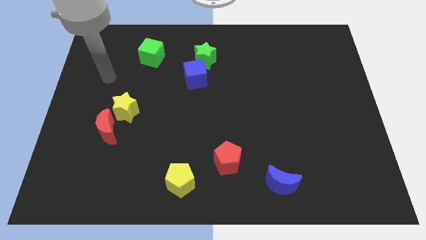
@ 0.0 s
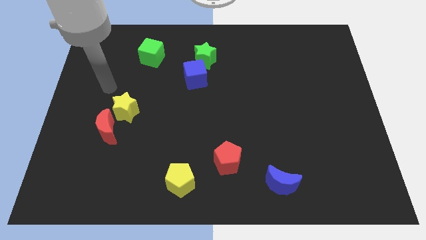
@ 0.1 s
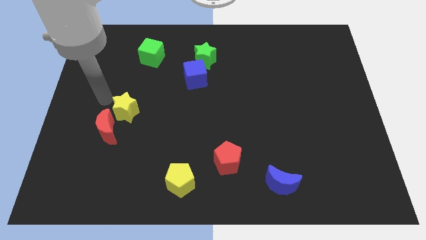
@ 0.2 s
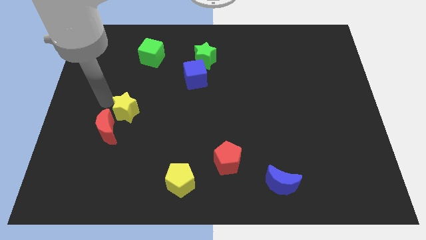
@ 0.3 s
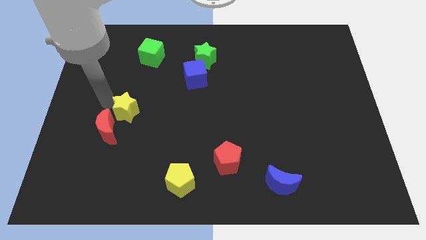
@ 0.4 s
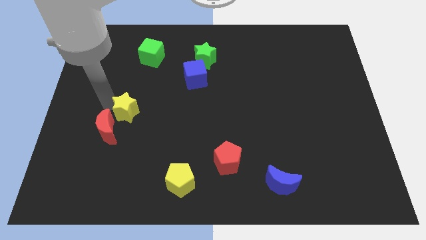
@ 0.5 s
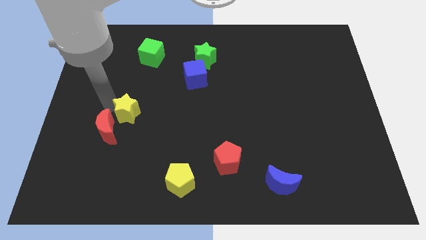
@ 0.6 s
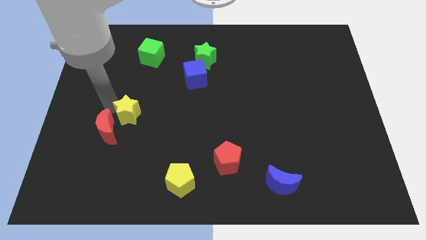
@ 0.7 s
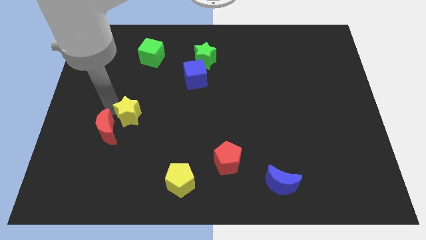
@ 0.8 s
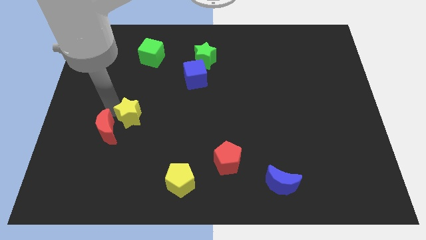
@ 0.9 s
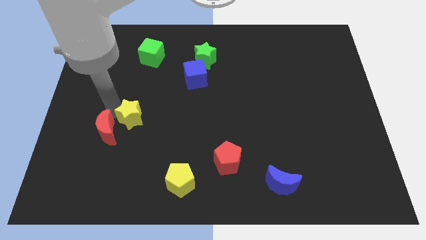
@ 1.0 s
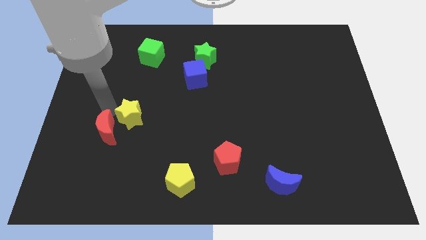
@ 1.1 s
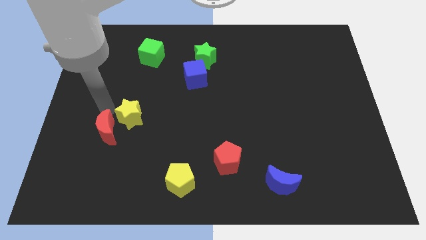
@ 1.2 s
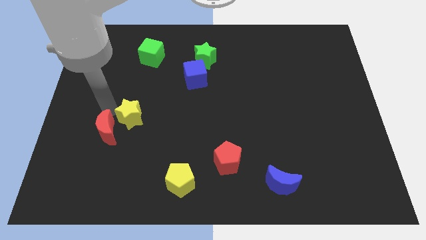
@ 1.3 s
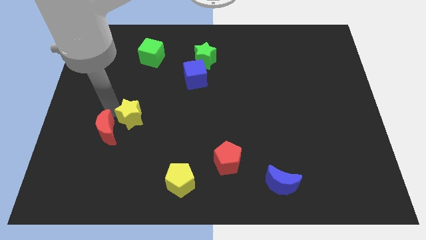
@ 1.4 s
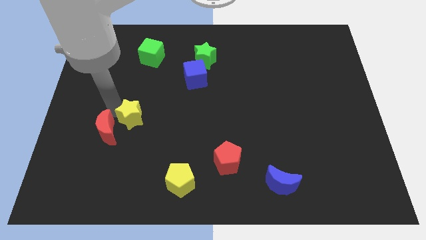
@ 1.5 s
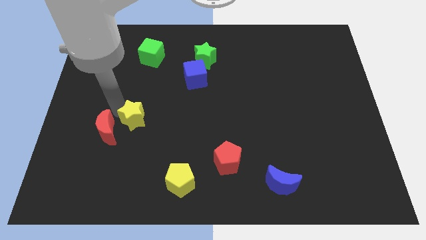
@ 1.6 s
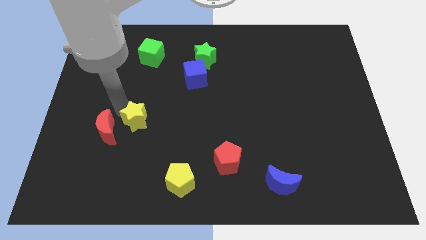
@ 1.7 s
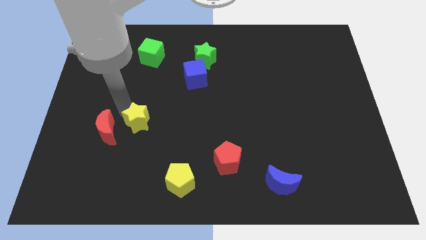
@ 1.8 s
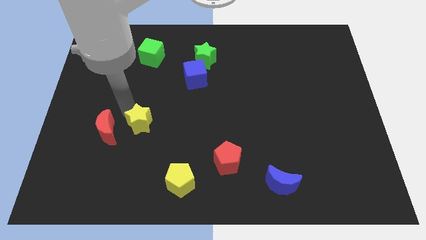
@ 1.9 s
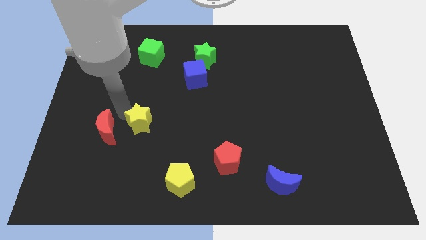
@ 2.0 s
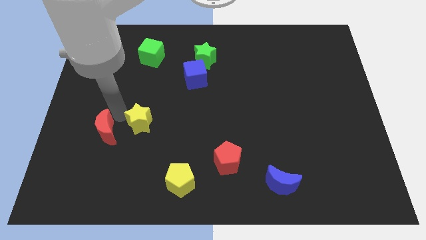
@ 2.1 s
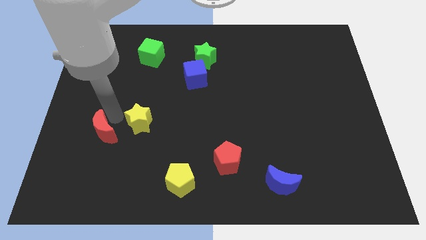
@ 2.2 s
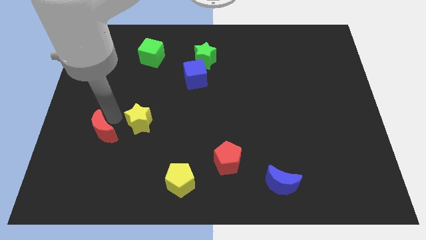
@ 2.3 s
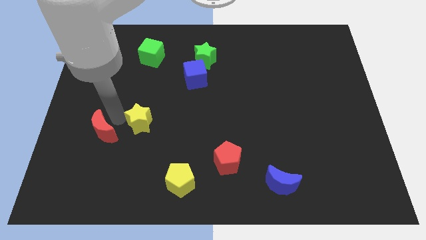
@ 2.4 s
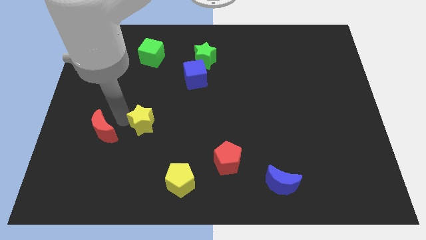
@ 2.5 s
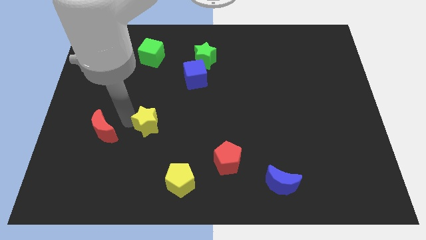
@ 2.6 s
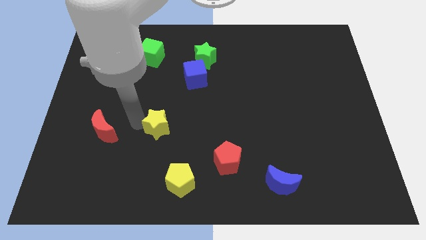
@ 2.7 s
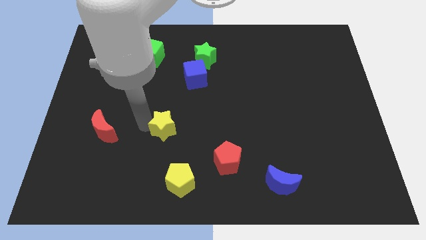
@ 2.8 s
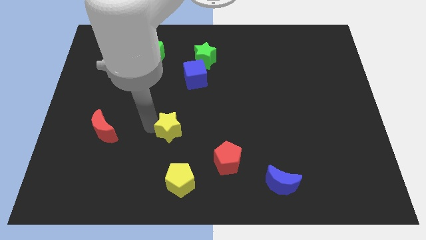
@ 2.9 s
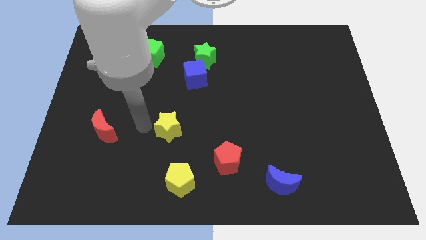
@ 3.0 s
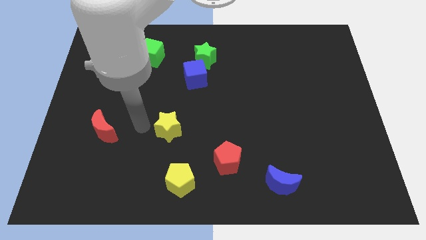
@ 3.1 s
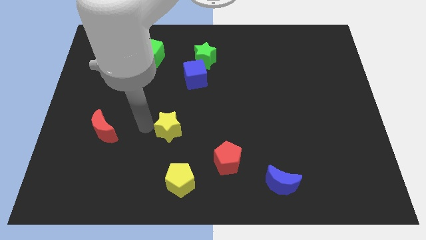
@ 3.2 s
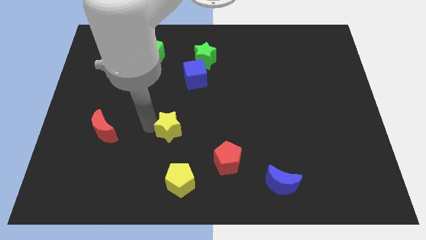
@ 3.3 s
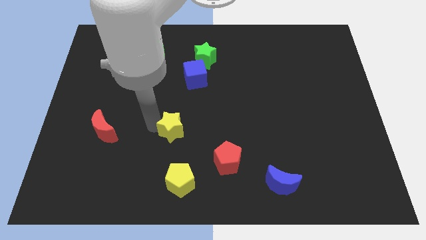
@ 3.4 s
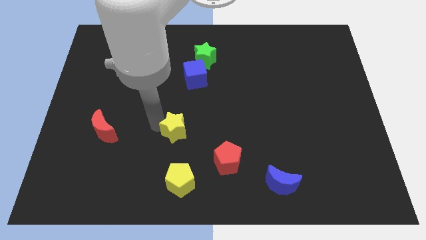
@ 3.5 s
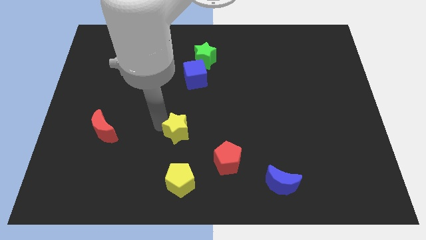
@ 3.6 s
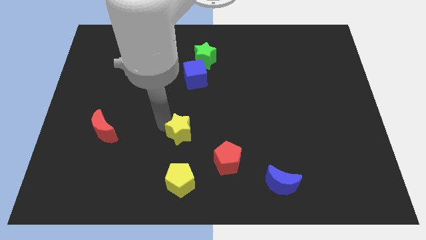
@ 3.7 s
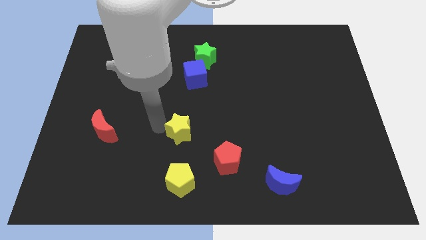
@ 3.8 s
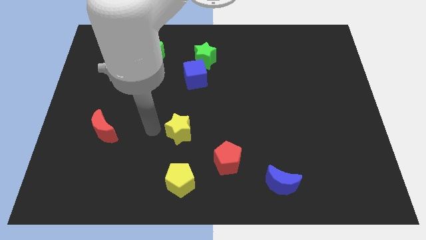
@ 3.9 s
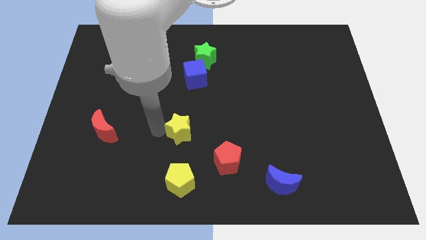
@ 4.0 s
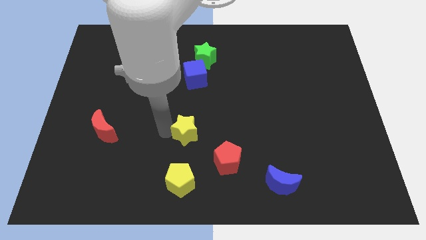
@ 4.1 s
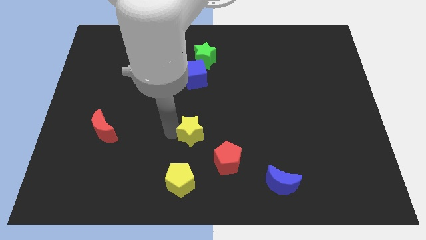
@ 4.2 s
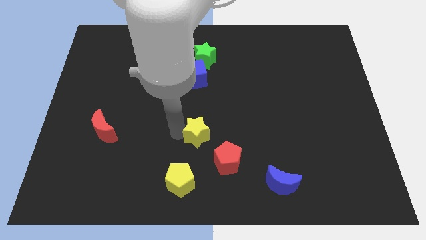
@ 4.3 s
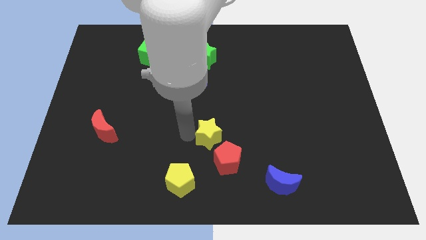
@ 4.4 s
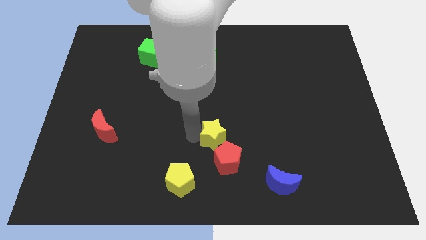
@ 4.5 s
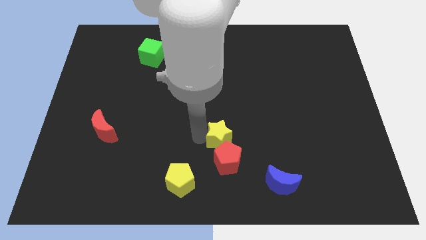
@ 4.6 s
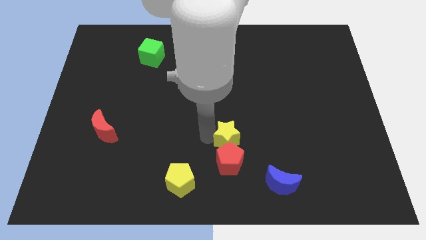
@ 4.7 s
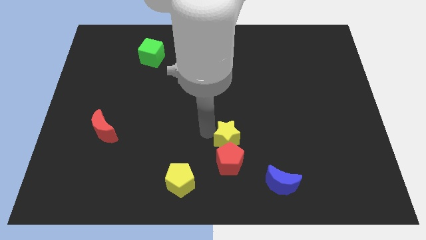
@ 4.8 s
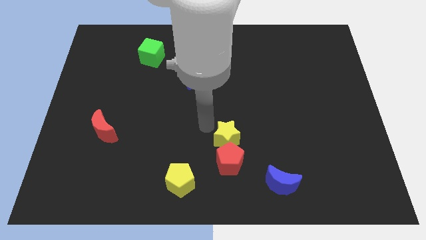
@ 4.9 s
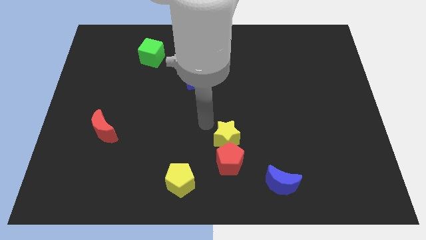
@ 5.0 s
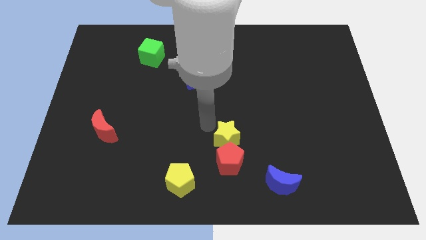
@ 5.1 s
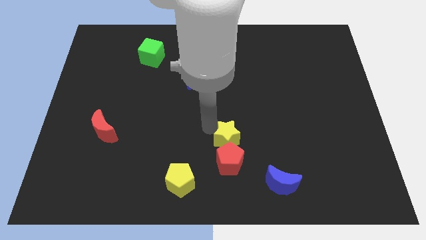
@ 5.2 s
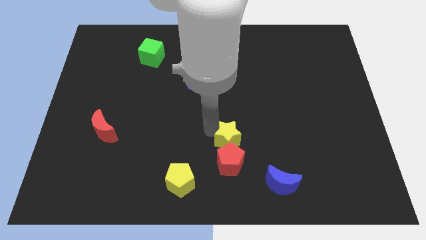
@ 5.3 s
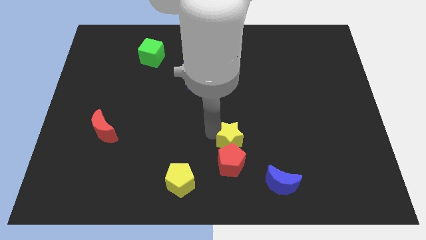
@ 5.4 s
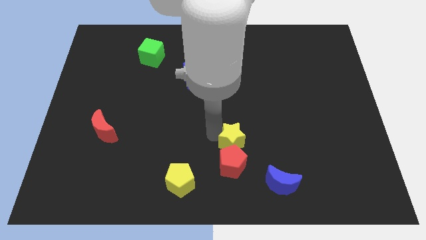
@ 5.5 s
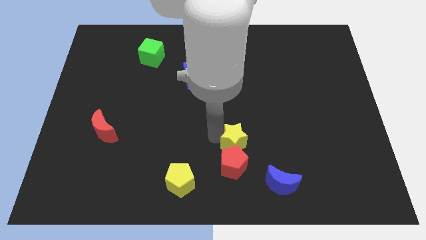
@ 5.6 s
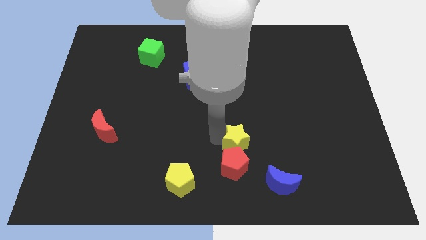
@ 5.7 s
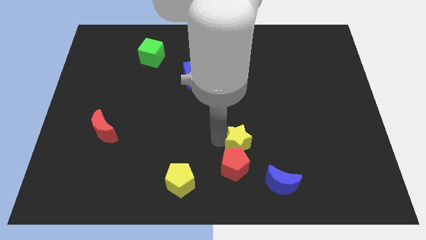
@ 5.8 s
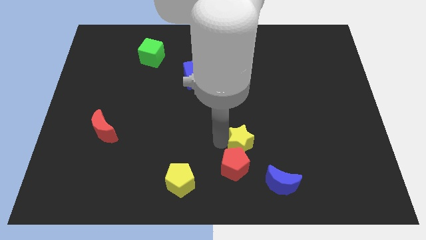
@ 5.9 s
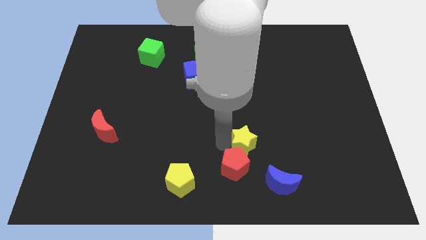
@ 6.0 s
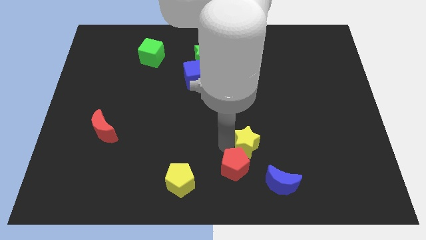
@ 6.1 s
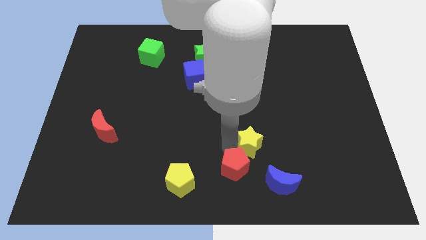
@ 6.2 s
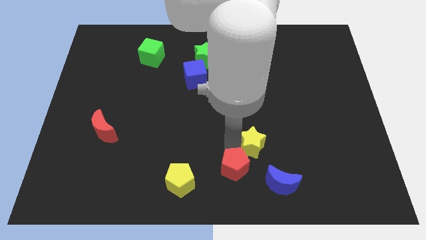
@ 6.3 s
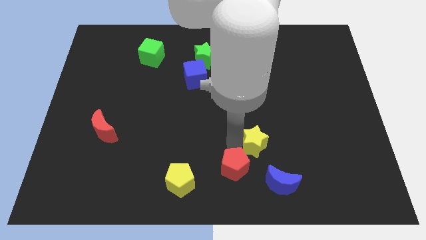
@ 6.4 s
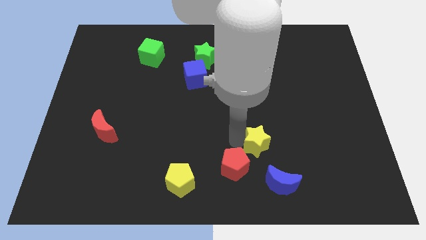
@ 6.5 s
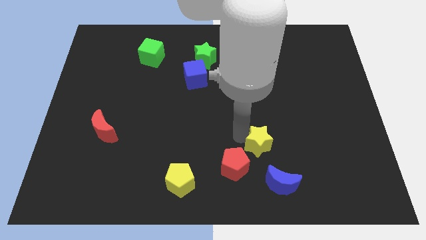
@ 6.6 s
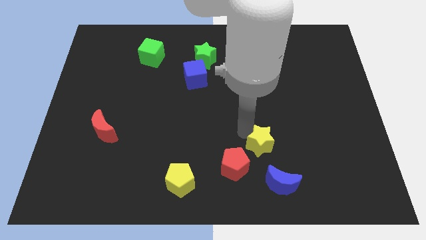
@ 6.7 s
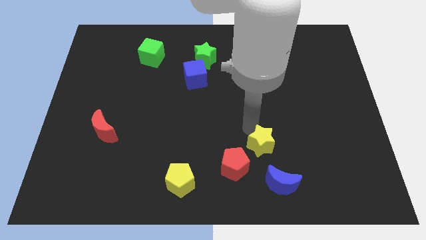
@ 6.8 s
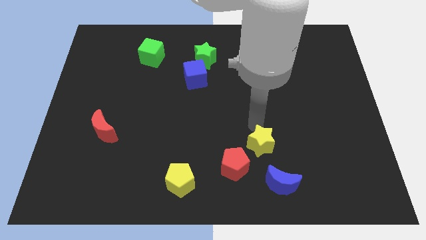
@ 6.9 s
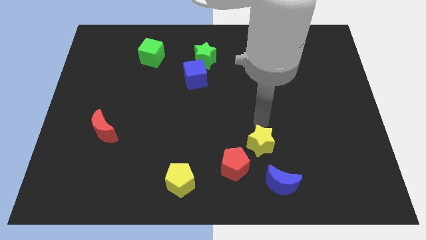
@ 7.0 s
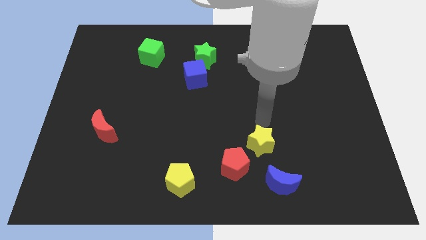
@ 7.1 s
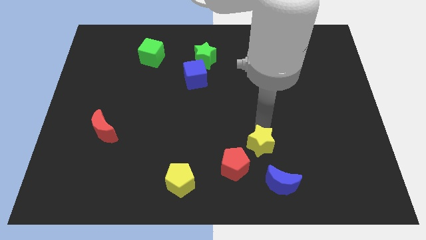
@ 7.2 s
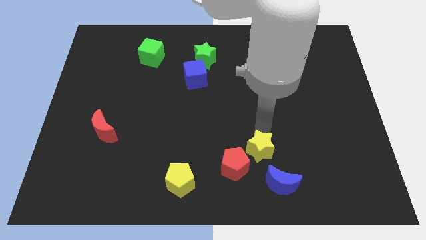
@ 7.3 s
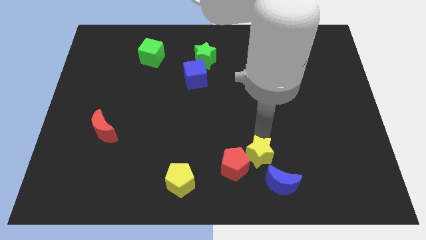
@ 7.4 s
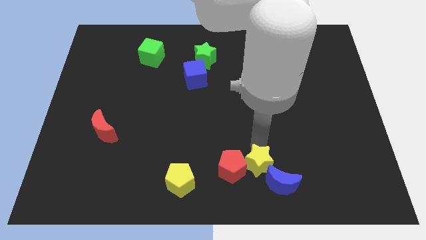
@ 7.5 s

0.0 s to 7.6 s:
move the yellow star to the blue moon
